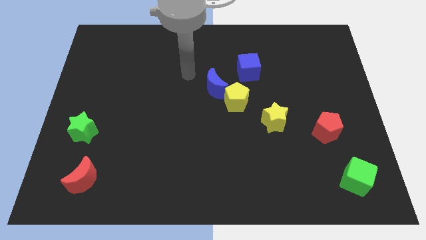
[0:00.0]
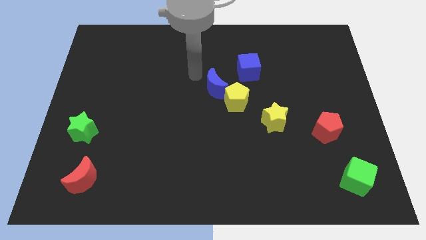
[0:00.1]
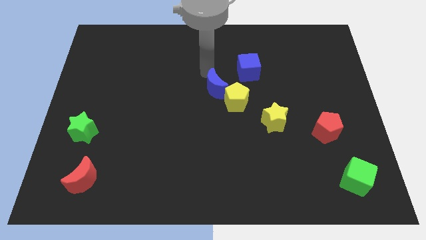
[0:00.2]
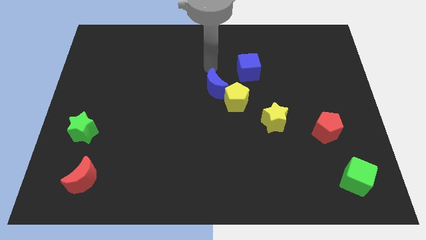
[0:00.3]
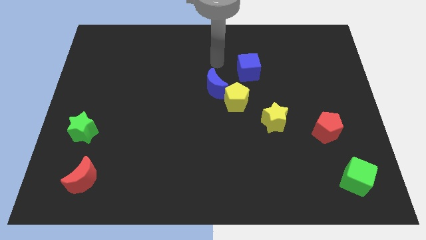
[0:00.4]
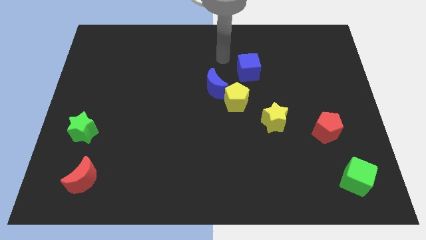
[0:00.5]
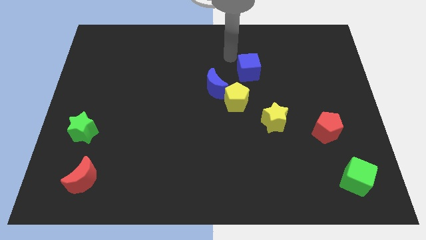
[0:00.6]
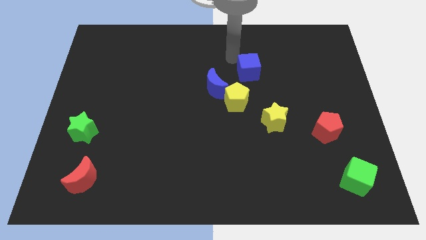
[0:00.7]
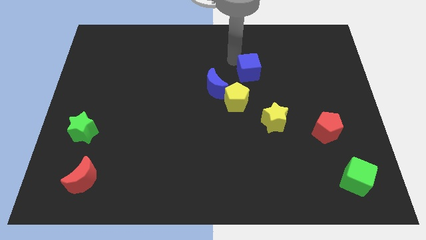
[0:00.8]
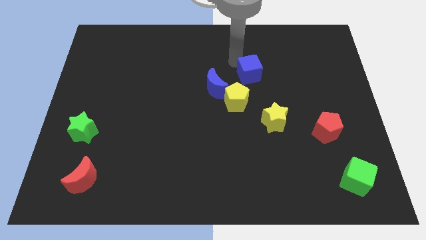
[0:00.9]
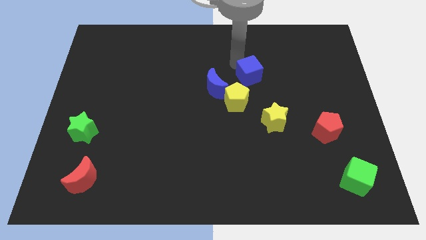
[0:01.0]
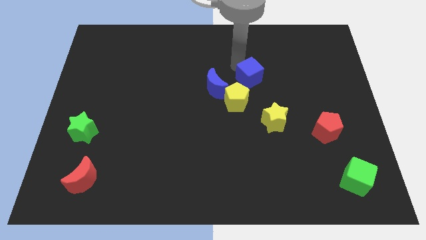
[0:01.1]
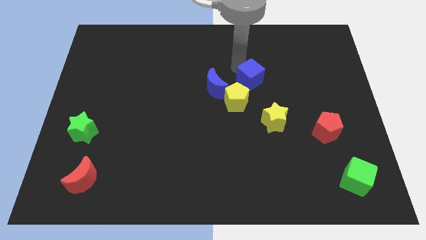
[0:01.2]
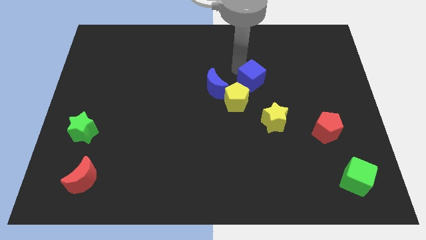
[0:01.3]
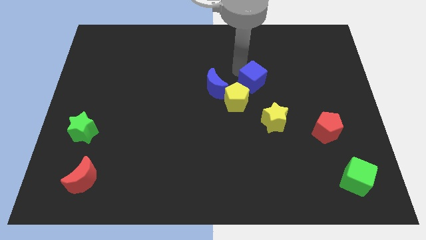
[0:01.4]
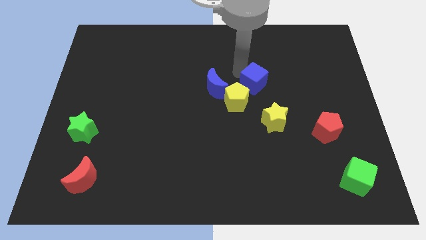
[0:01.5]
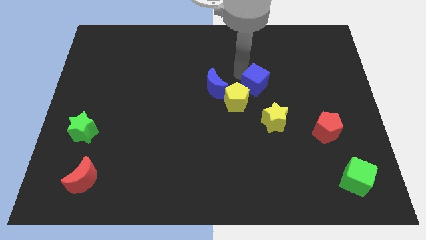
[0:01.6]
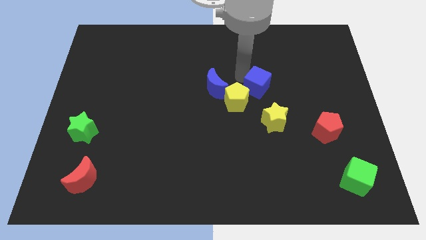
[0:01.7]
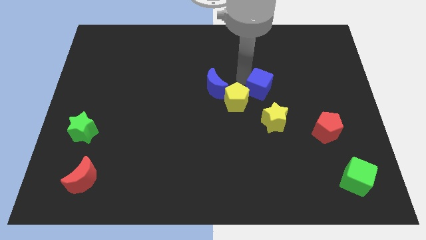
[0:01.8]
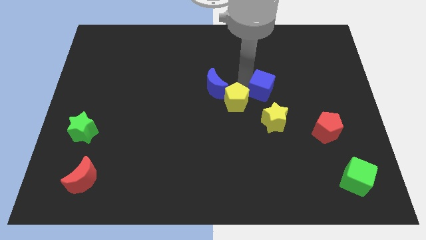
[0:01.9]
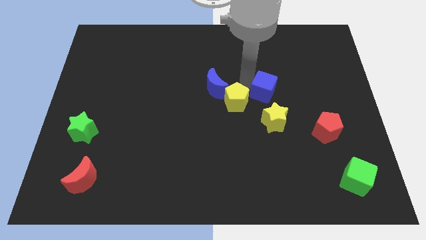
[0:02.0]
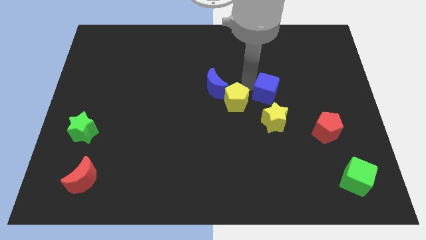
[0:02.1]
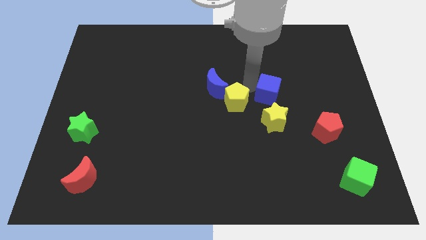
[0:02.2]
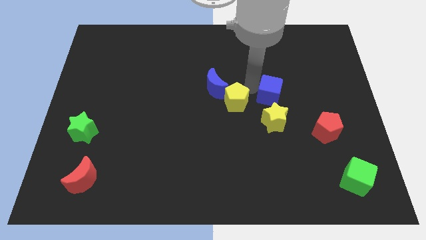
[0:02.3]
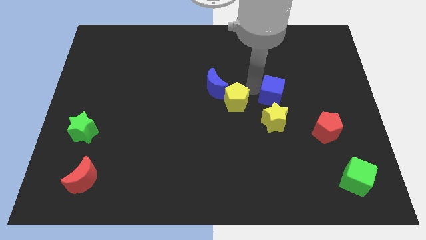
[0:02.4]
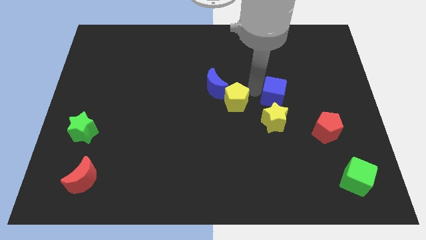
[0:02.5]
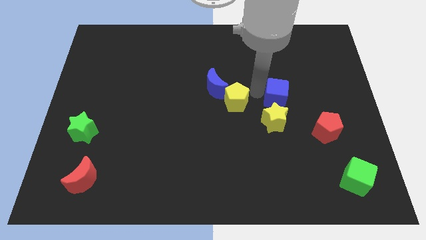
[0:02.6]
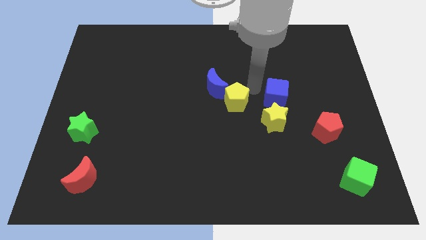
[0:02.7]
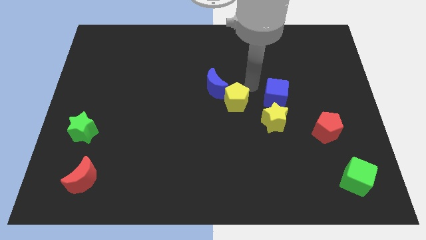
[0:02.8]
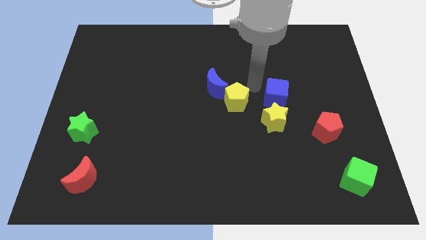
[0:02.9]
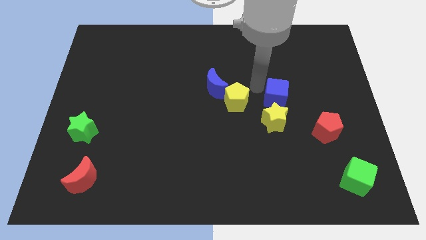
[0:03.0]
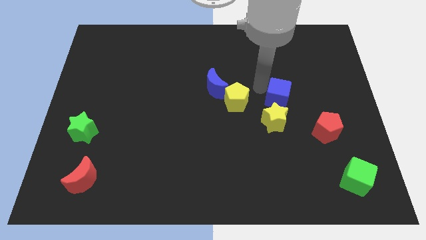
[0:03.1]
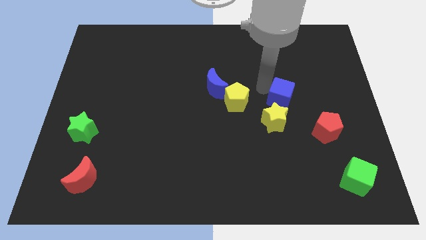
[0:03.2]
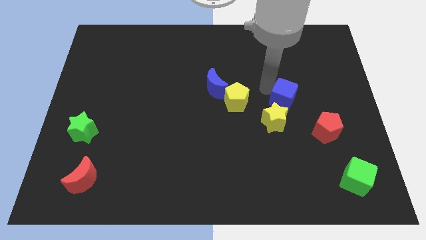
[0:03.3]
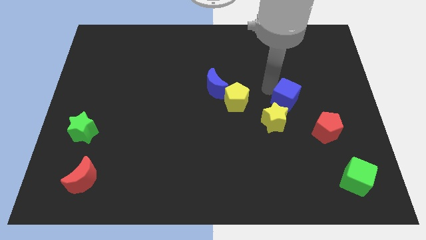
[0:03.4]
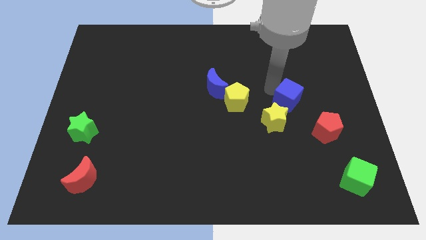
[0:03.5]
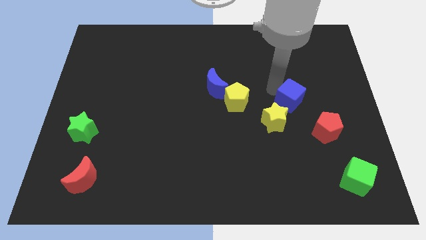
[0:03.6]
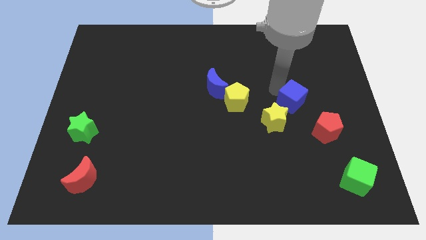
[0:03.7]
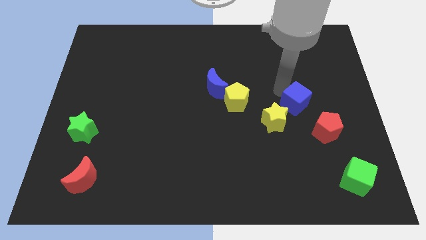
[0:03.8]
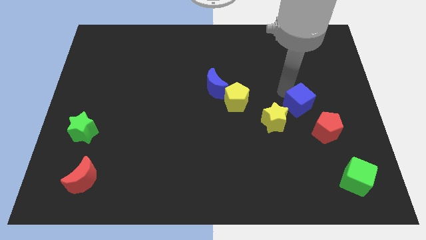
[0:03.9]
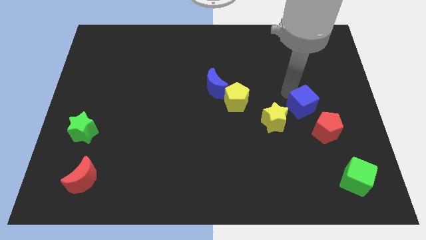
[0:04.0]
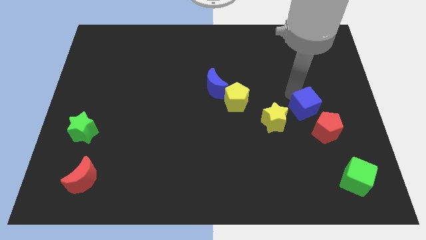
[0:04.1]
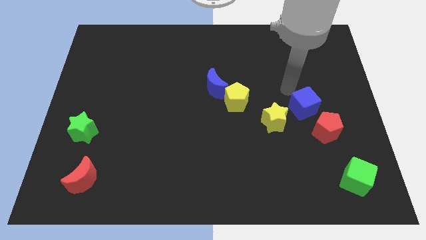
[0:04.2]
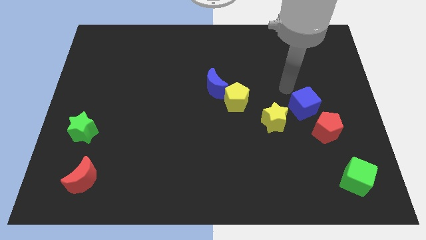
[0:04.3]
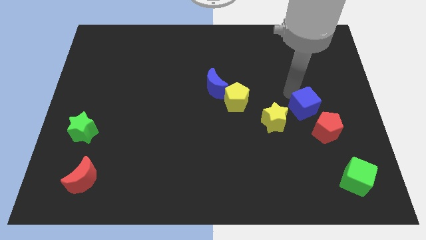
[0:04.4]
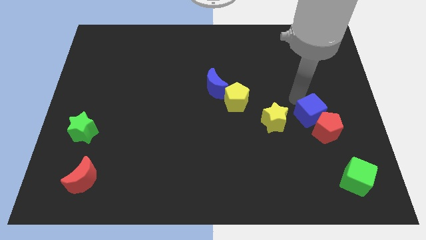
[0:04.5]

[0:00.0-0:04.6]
push the blue cube to the red pentagon

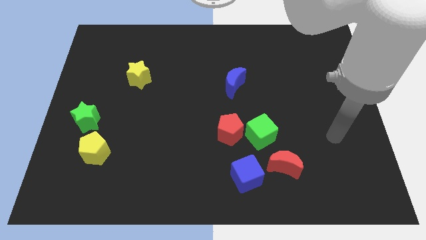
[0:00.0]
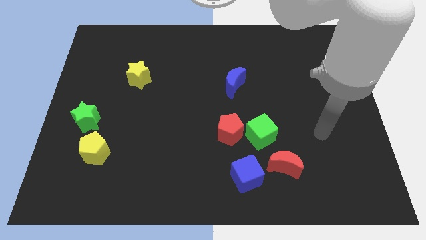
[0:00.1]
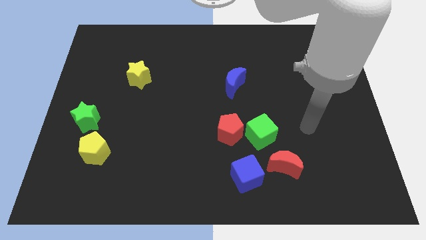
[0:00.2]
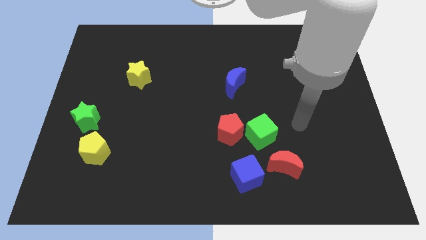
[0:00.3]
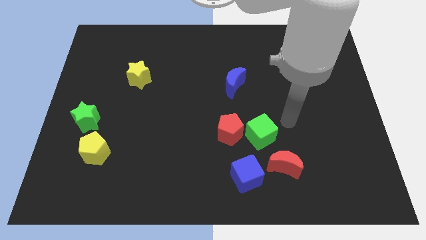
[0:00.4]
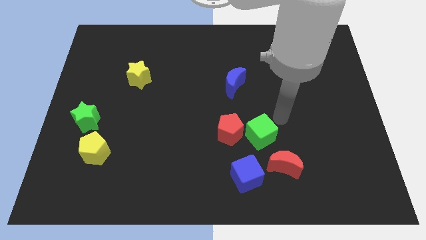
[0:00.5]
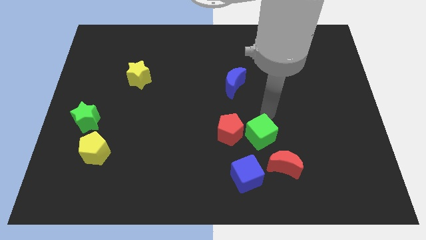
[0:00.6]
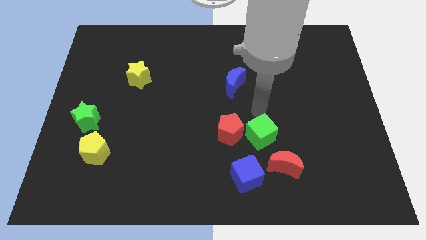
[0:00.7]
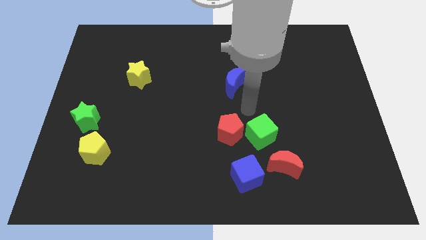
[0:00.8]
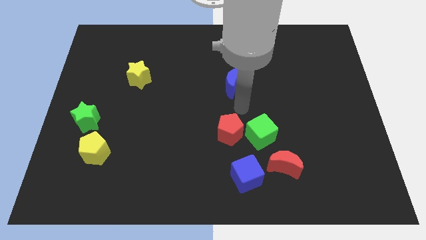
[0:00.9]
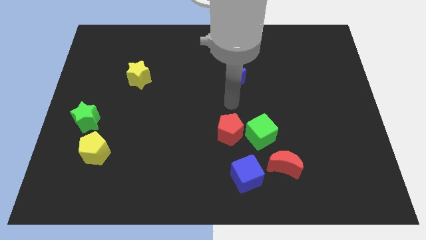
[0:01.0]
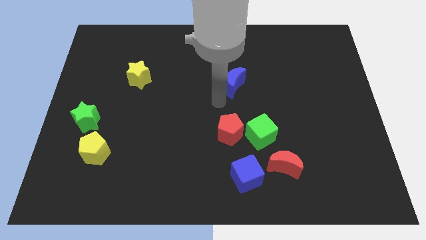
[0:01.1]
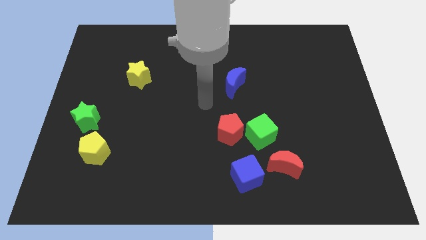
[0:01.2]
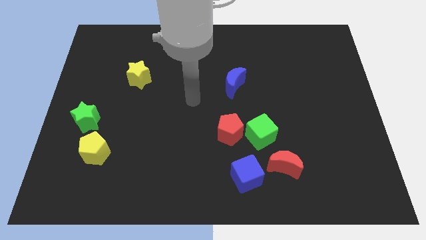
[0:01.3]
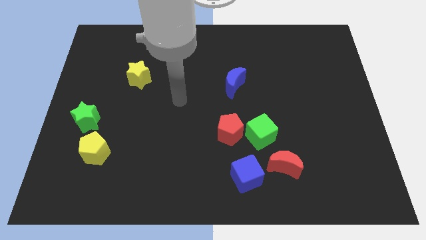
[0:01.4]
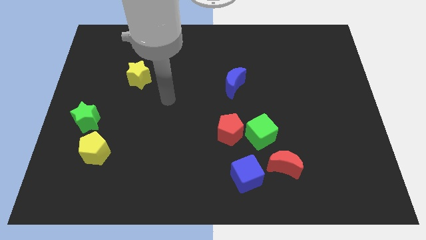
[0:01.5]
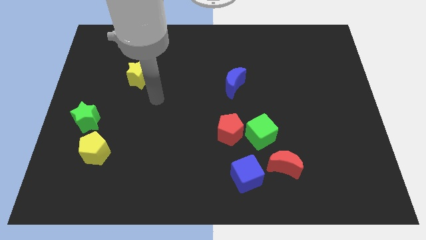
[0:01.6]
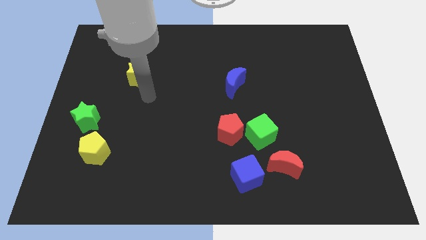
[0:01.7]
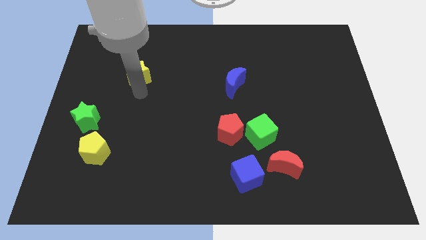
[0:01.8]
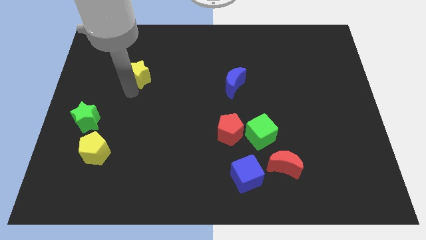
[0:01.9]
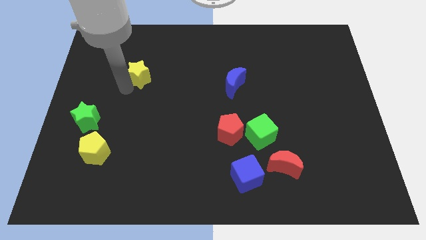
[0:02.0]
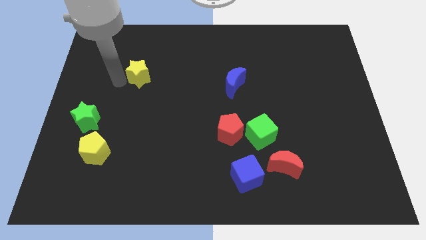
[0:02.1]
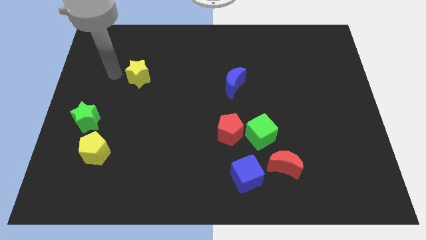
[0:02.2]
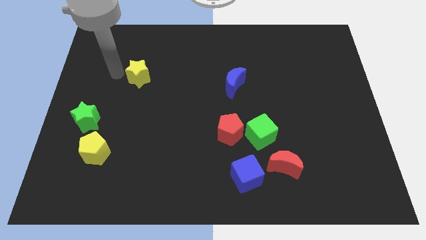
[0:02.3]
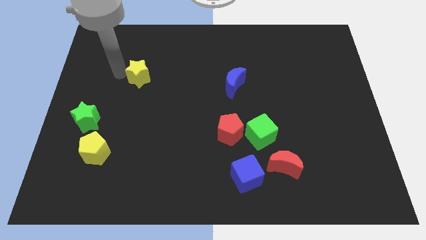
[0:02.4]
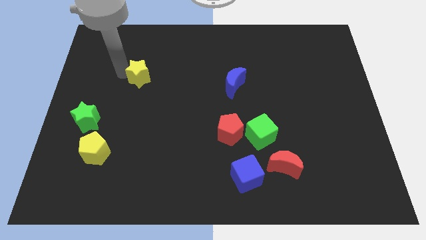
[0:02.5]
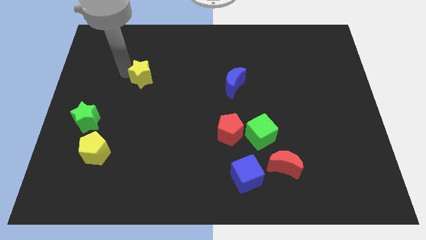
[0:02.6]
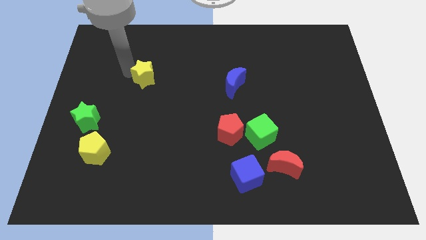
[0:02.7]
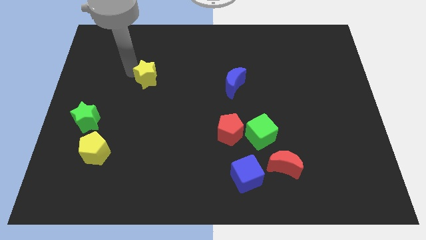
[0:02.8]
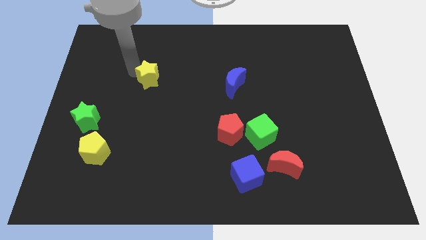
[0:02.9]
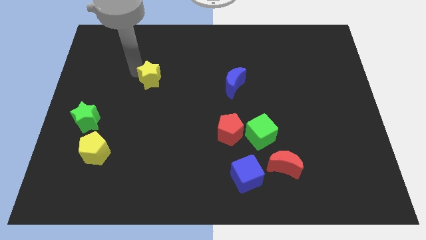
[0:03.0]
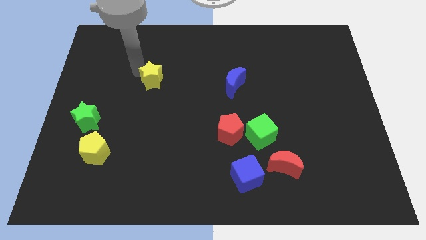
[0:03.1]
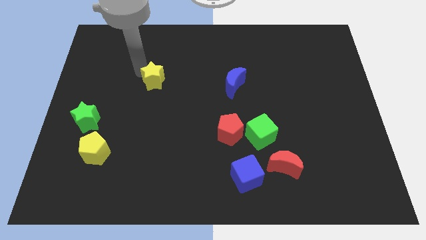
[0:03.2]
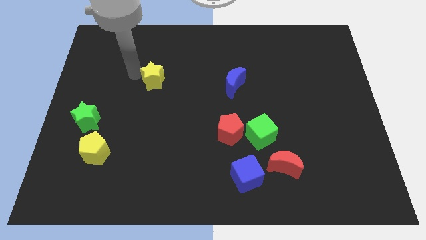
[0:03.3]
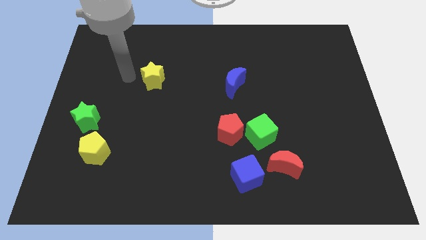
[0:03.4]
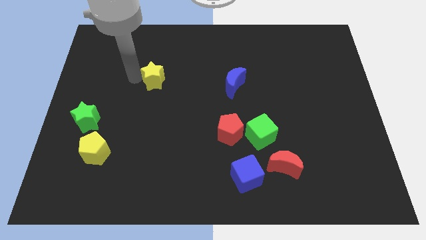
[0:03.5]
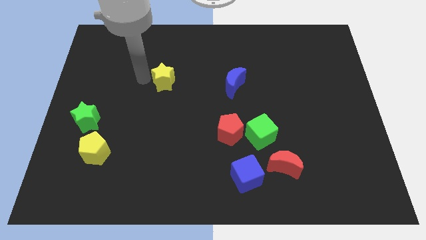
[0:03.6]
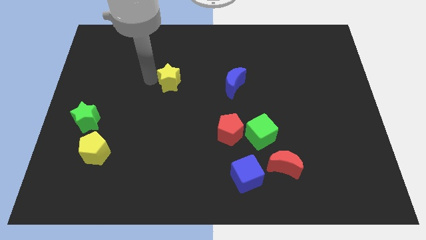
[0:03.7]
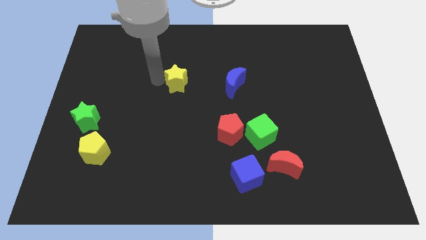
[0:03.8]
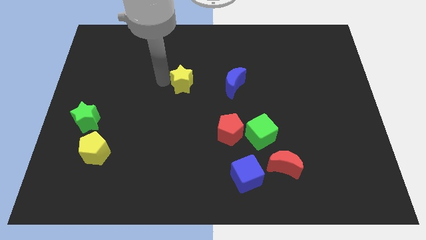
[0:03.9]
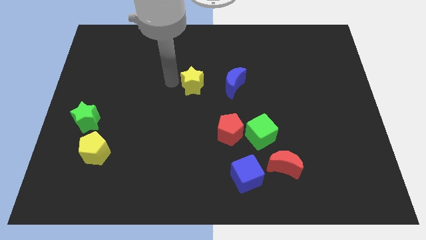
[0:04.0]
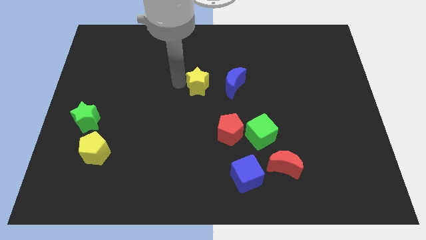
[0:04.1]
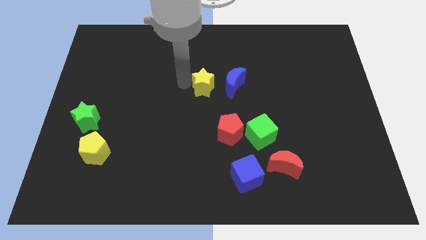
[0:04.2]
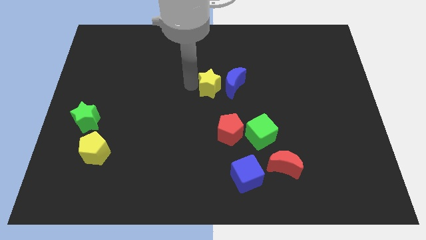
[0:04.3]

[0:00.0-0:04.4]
push the yellow star towards the blue moon
